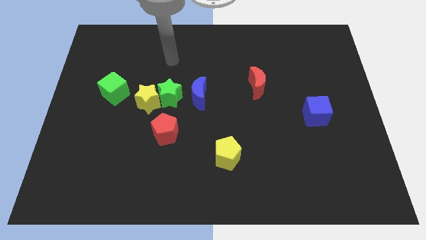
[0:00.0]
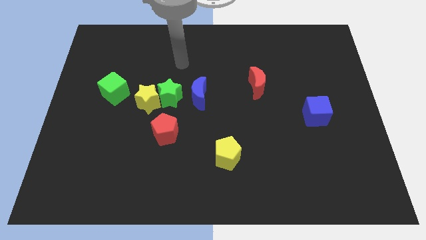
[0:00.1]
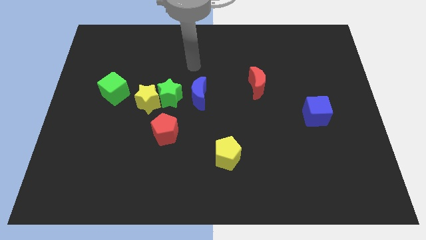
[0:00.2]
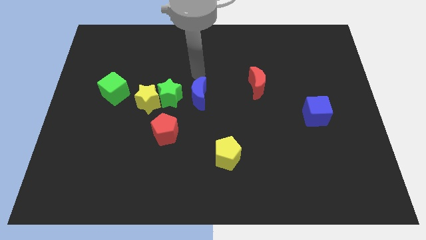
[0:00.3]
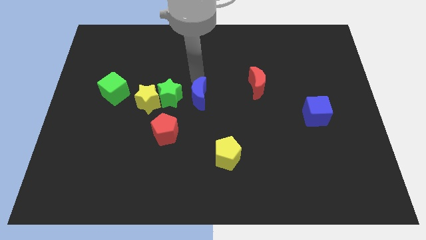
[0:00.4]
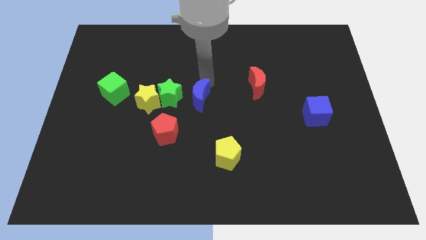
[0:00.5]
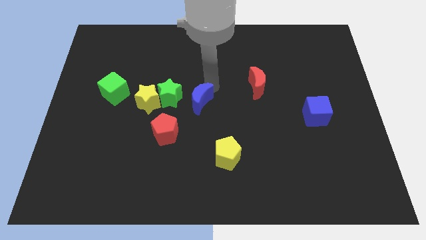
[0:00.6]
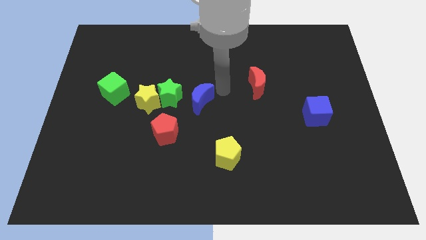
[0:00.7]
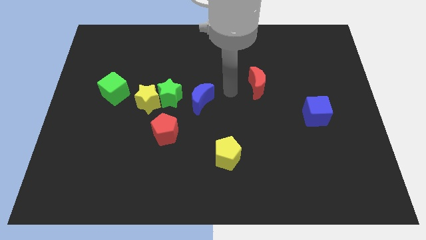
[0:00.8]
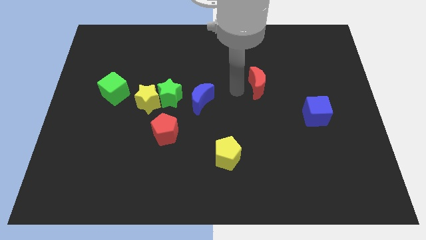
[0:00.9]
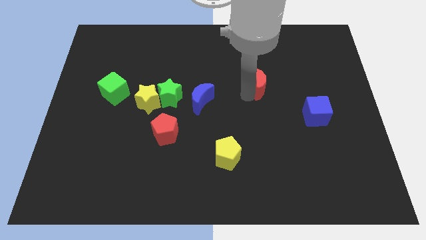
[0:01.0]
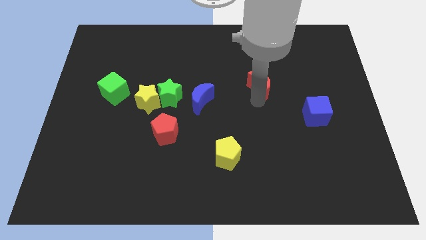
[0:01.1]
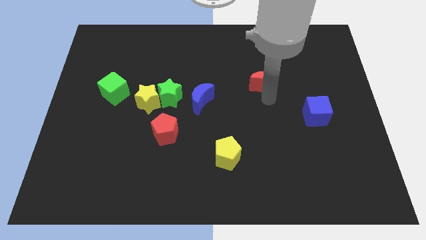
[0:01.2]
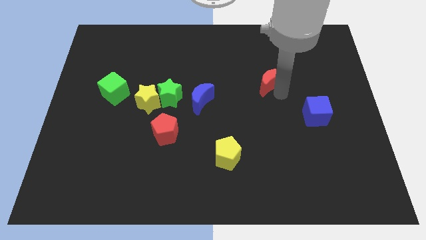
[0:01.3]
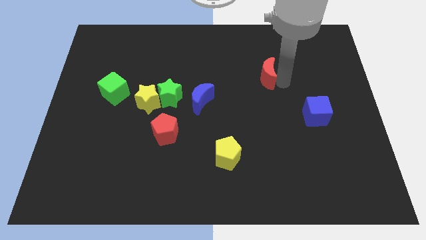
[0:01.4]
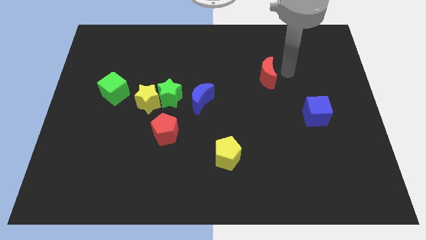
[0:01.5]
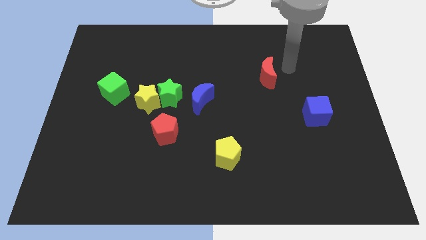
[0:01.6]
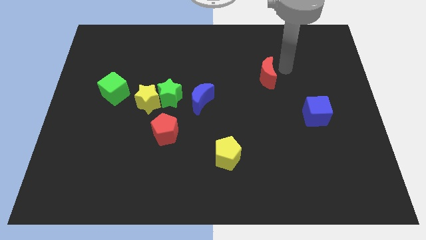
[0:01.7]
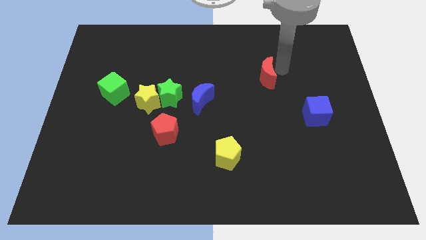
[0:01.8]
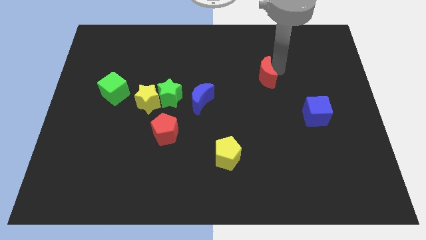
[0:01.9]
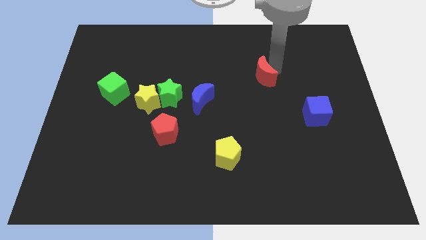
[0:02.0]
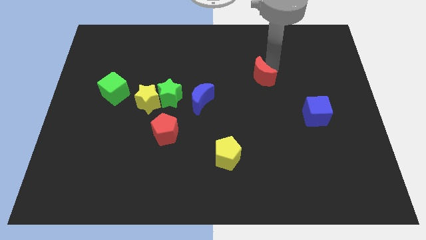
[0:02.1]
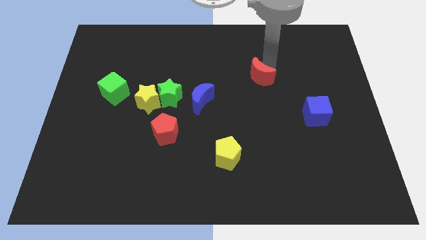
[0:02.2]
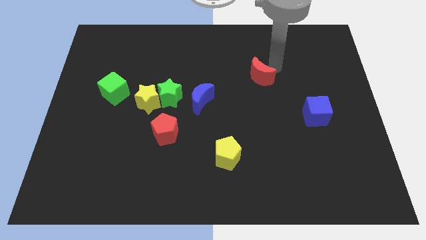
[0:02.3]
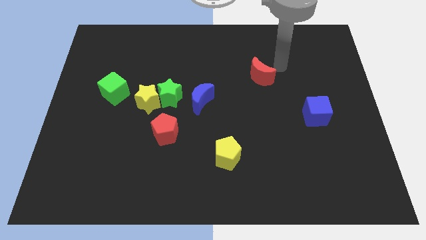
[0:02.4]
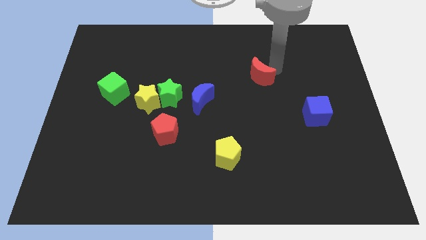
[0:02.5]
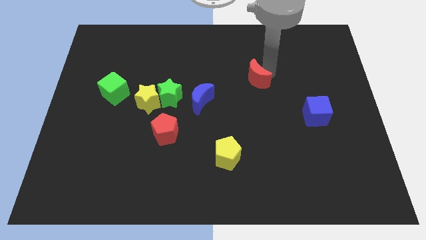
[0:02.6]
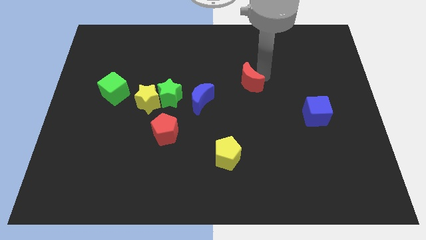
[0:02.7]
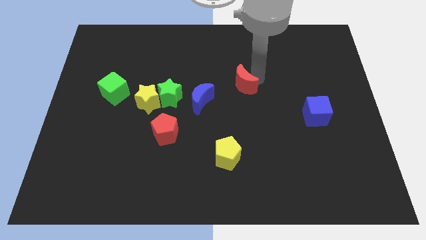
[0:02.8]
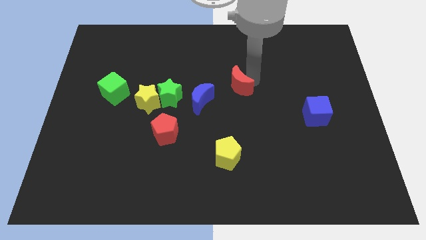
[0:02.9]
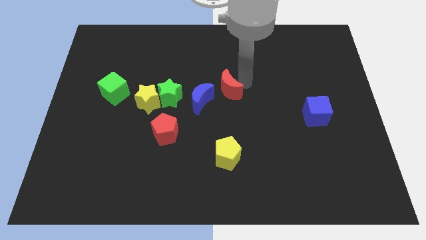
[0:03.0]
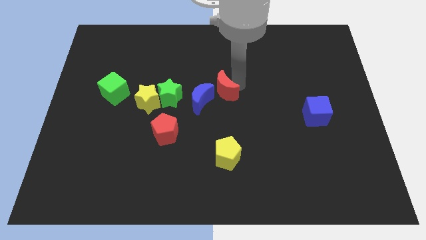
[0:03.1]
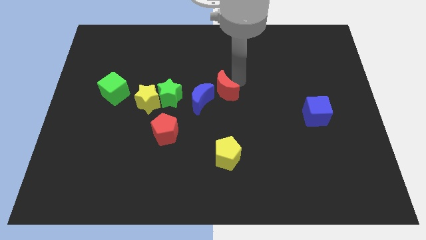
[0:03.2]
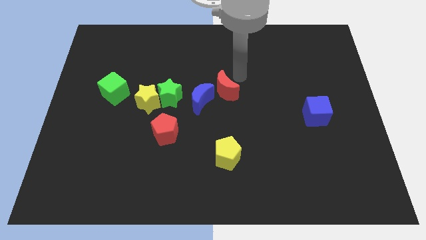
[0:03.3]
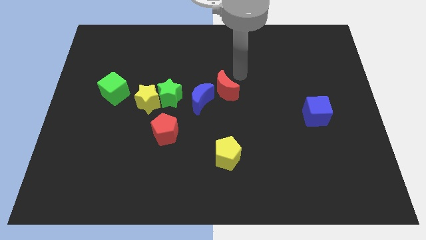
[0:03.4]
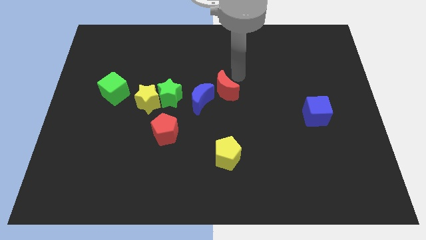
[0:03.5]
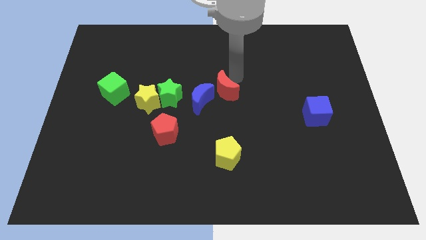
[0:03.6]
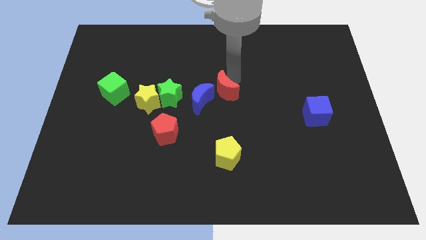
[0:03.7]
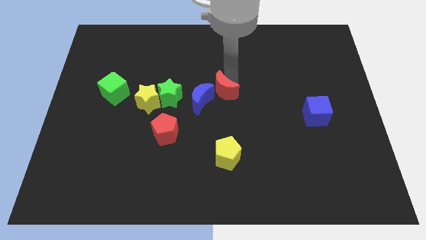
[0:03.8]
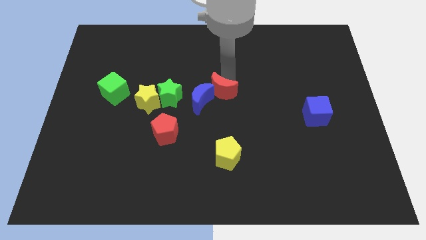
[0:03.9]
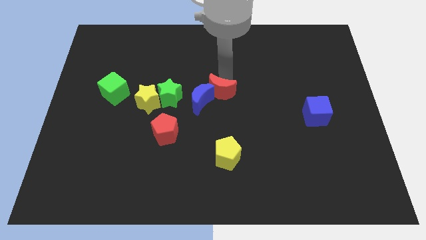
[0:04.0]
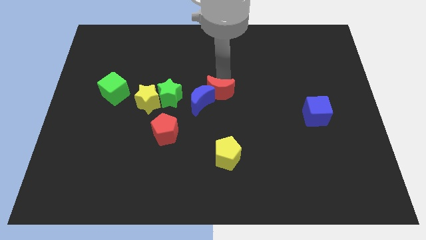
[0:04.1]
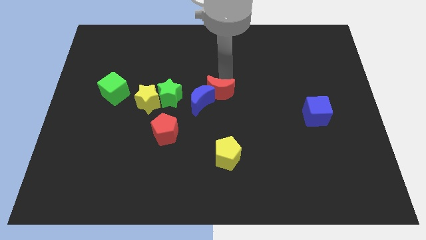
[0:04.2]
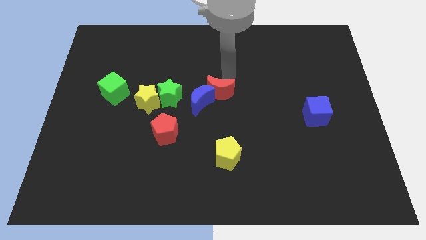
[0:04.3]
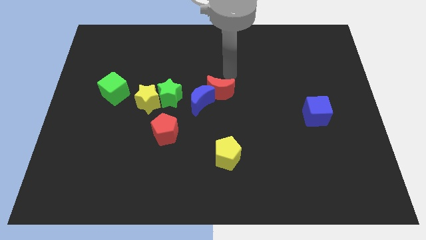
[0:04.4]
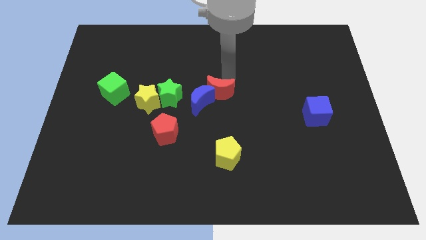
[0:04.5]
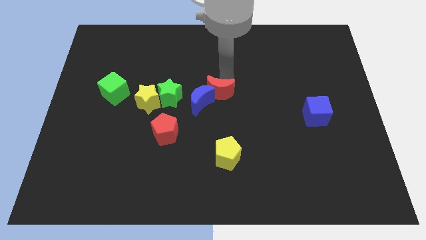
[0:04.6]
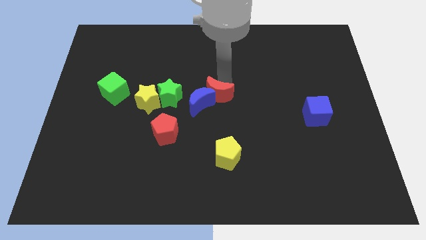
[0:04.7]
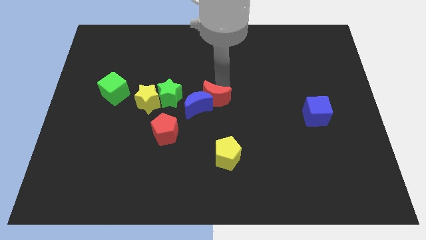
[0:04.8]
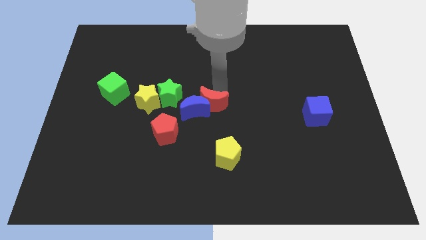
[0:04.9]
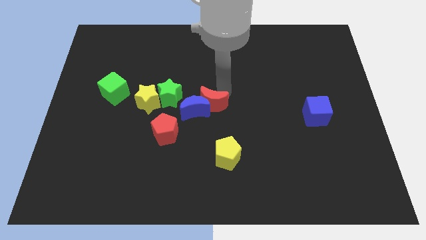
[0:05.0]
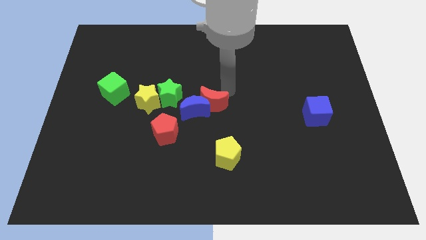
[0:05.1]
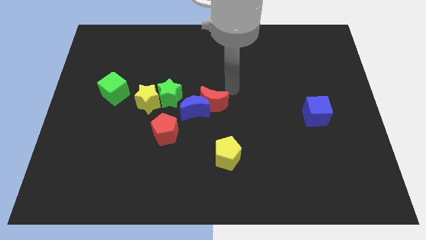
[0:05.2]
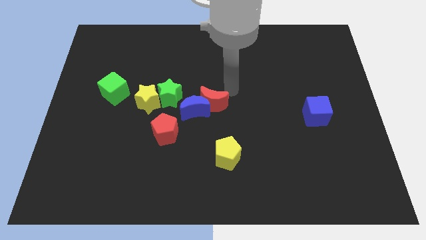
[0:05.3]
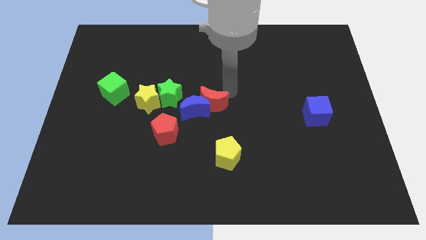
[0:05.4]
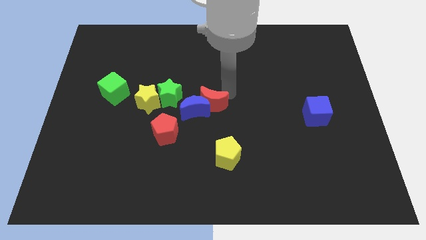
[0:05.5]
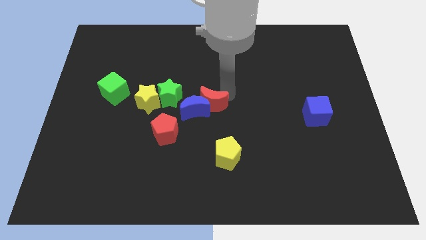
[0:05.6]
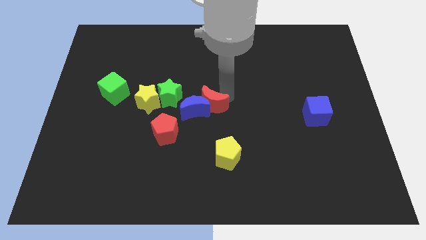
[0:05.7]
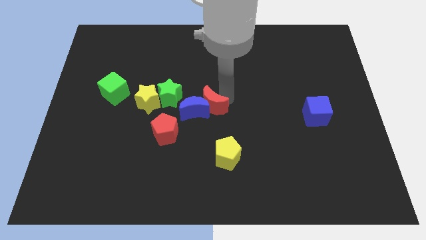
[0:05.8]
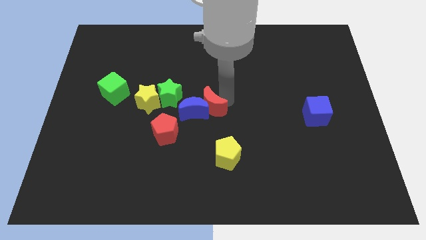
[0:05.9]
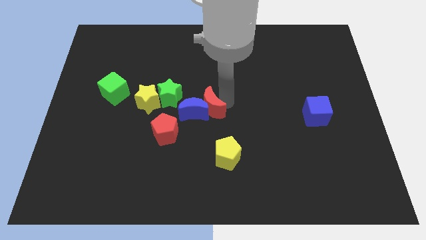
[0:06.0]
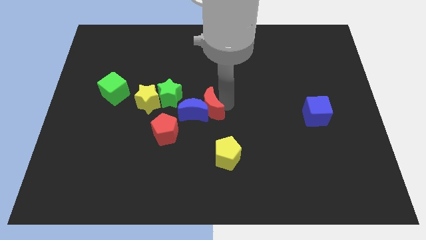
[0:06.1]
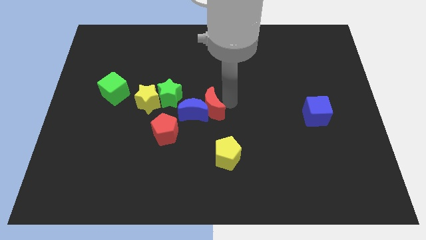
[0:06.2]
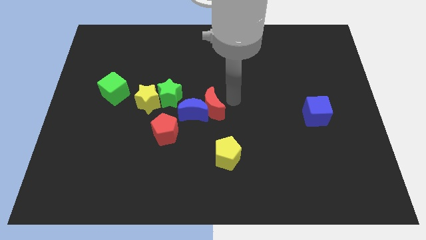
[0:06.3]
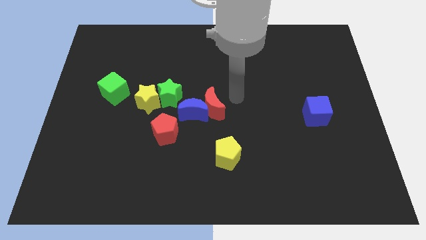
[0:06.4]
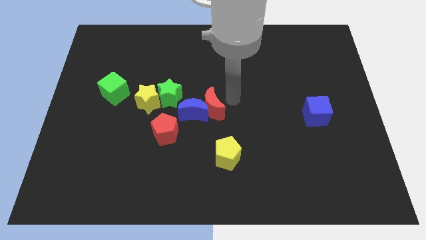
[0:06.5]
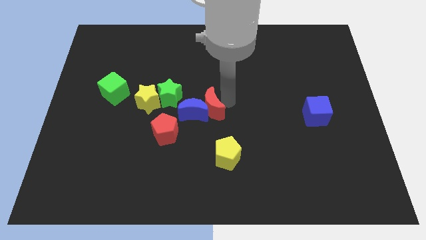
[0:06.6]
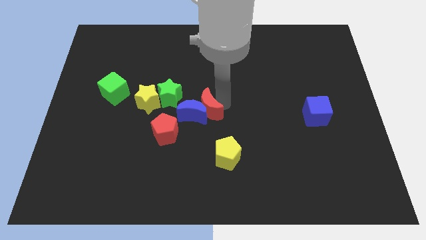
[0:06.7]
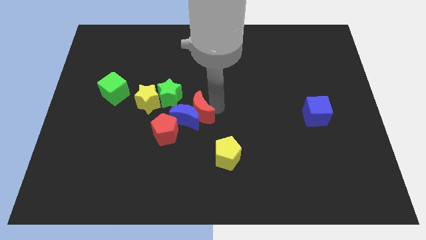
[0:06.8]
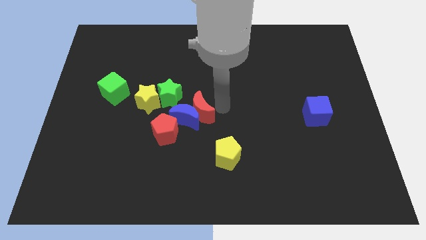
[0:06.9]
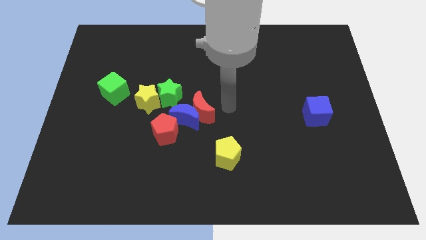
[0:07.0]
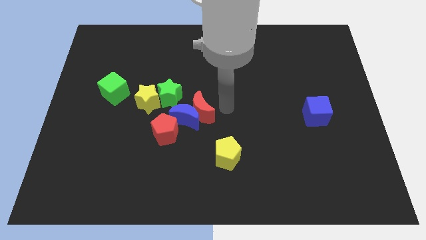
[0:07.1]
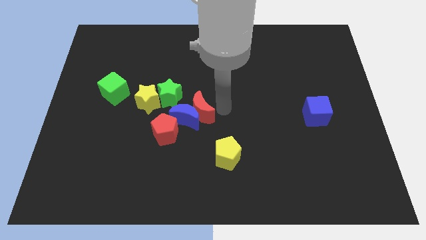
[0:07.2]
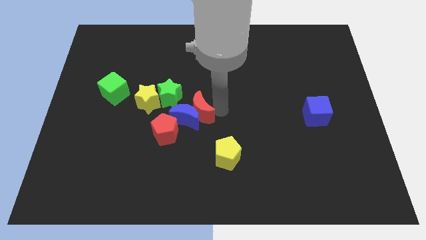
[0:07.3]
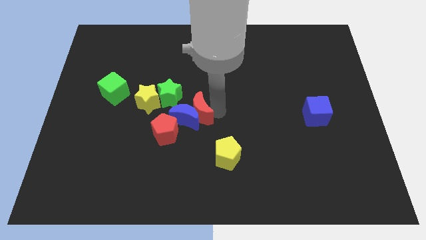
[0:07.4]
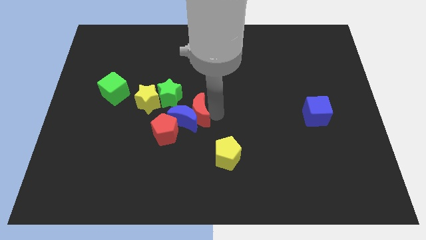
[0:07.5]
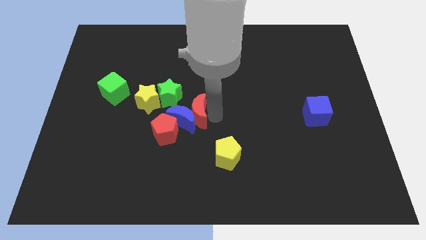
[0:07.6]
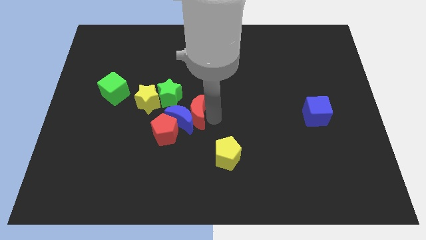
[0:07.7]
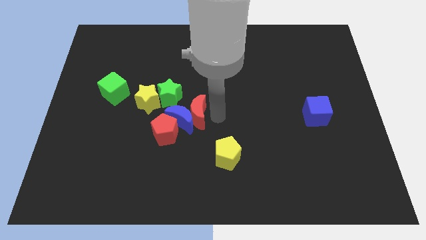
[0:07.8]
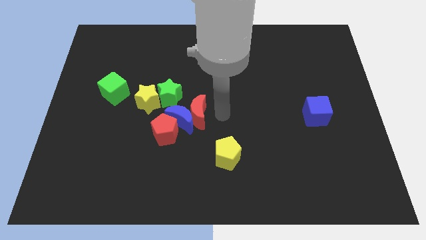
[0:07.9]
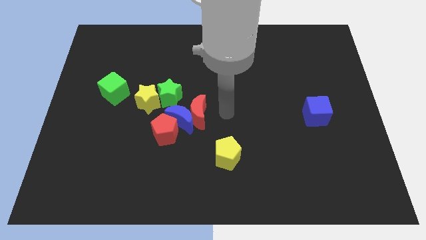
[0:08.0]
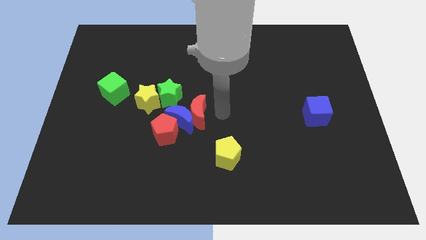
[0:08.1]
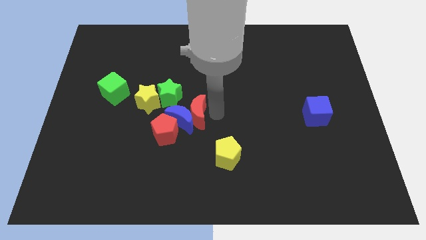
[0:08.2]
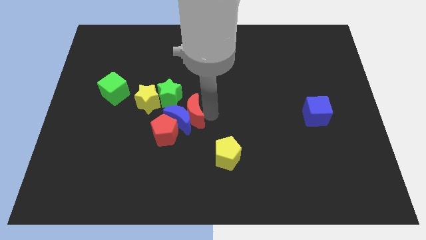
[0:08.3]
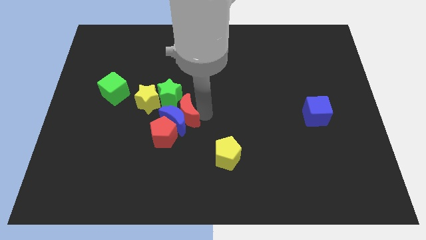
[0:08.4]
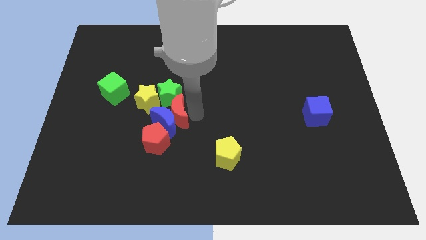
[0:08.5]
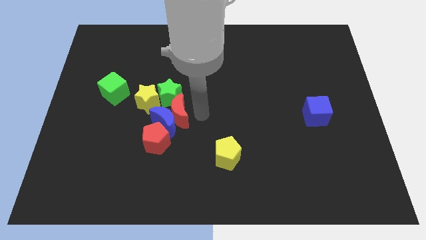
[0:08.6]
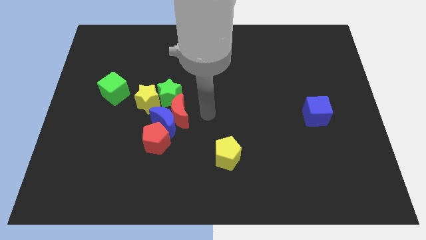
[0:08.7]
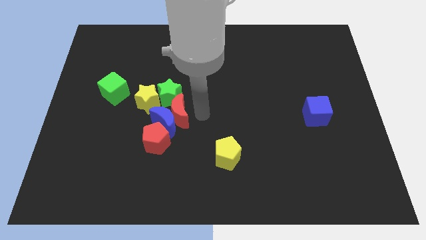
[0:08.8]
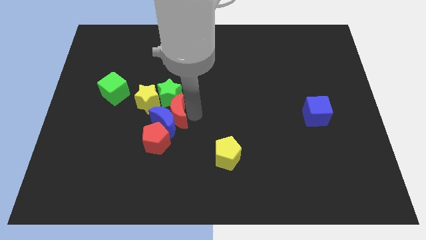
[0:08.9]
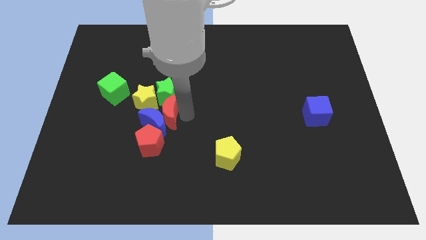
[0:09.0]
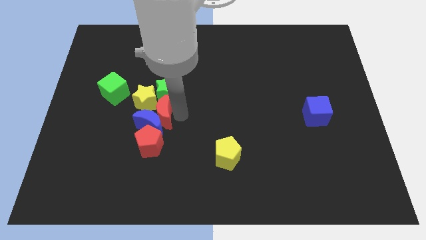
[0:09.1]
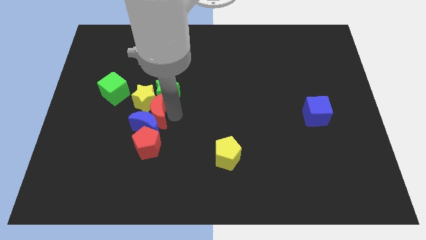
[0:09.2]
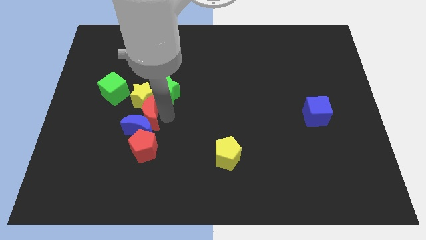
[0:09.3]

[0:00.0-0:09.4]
push the red moon to the bottom right side of the green cube
